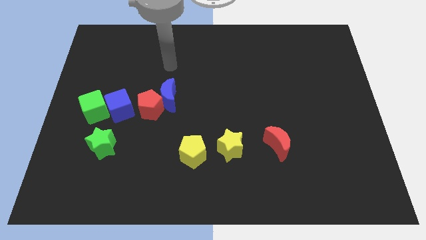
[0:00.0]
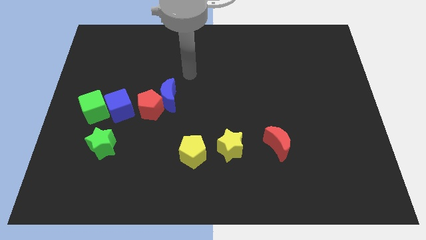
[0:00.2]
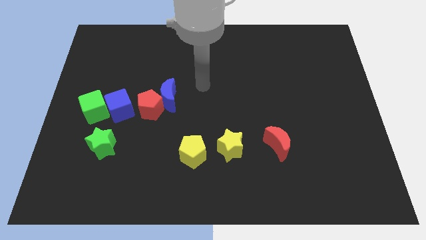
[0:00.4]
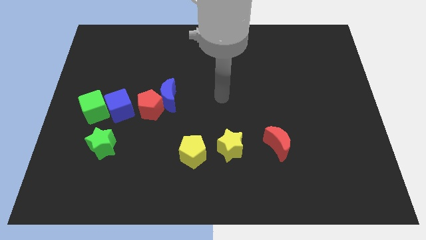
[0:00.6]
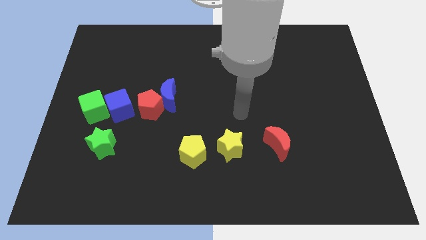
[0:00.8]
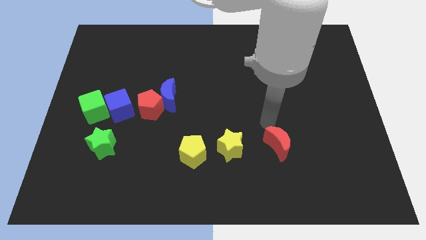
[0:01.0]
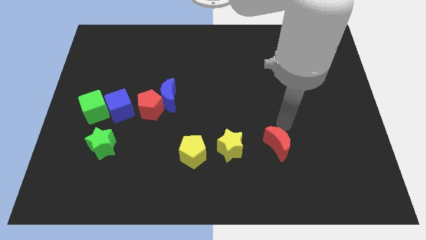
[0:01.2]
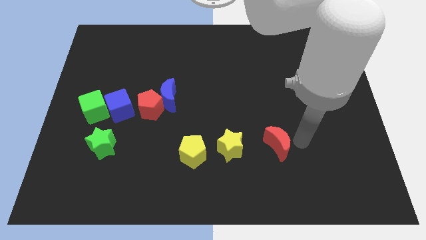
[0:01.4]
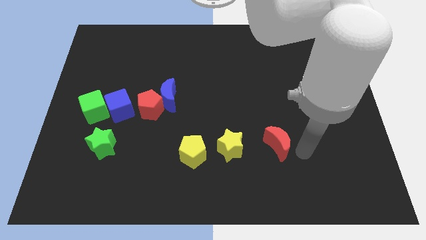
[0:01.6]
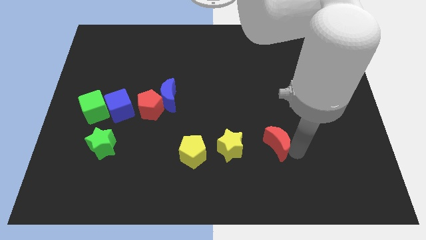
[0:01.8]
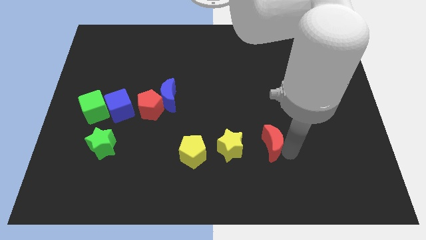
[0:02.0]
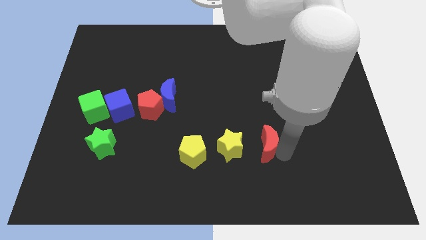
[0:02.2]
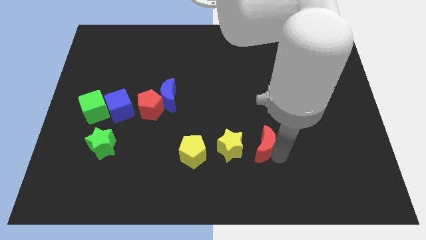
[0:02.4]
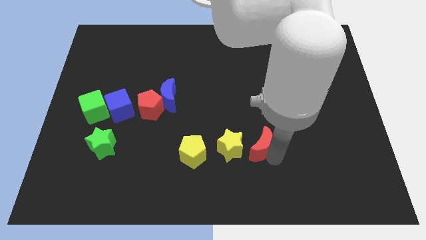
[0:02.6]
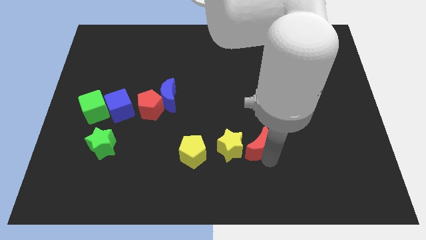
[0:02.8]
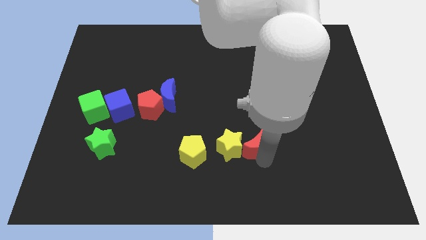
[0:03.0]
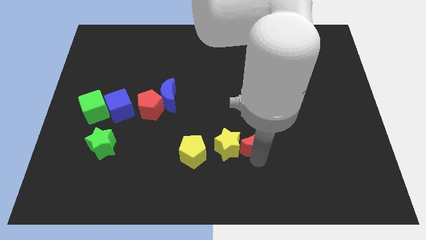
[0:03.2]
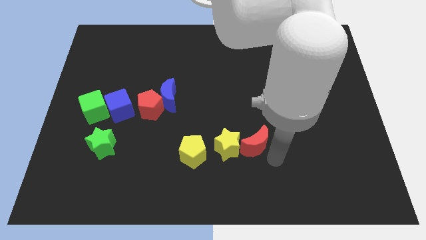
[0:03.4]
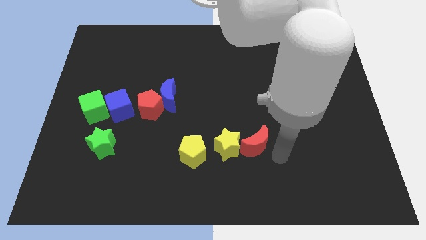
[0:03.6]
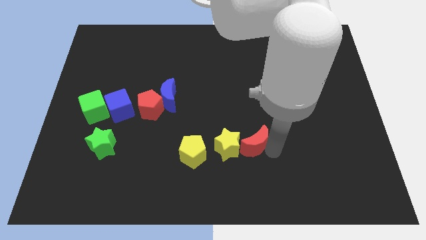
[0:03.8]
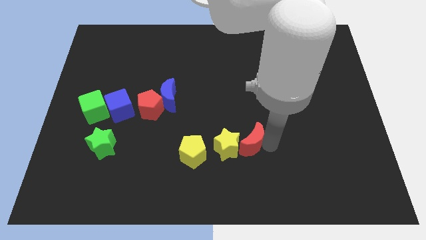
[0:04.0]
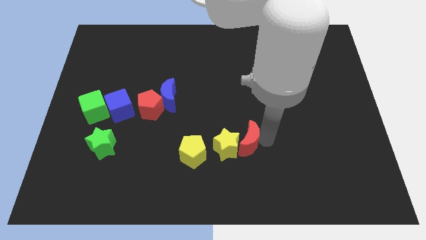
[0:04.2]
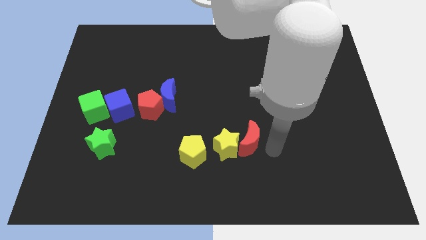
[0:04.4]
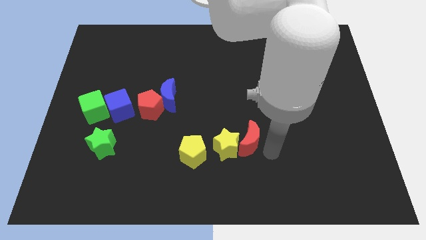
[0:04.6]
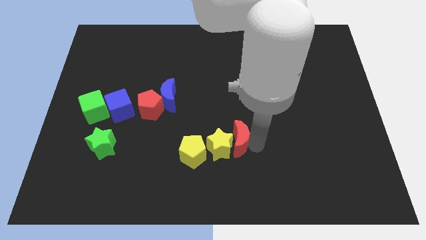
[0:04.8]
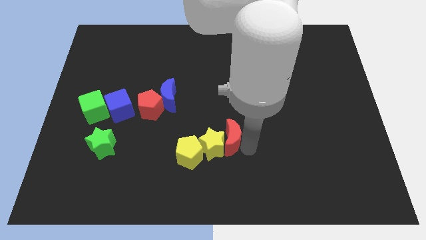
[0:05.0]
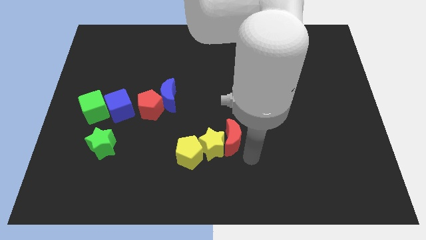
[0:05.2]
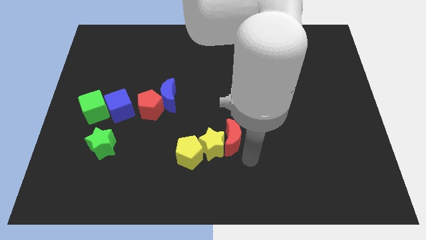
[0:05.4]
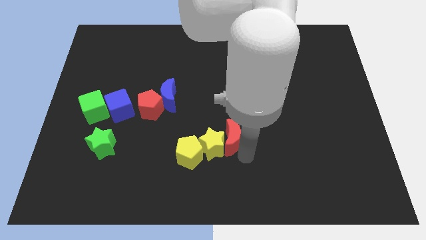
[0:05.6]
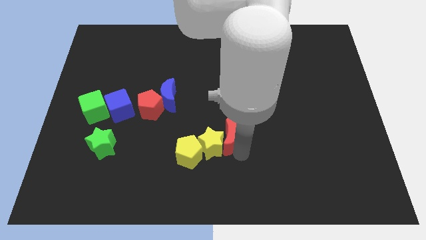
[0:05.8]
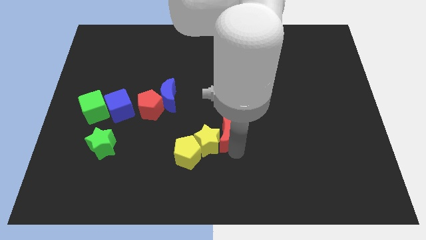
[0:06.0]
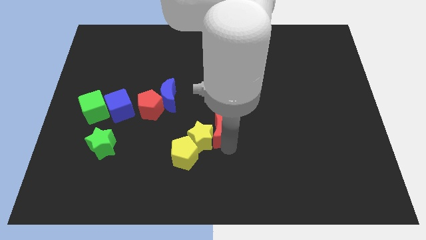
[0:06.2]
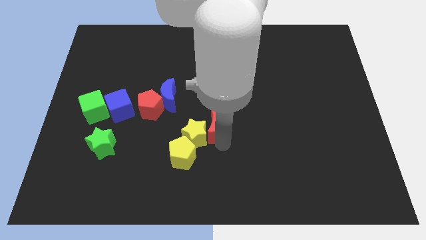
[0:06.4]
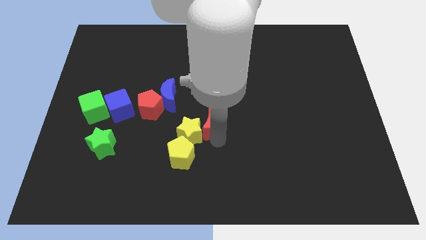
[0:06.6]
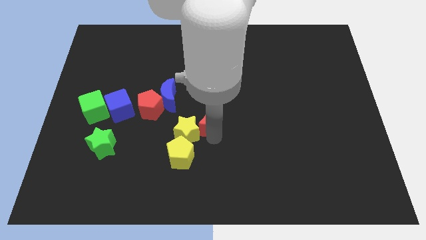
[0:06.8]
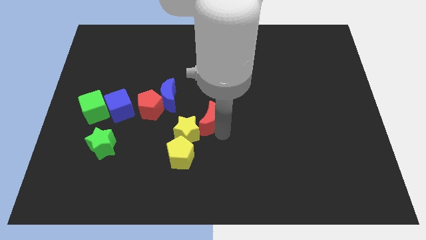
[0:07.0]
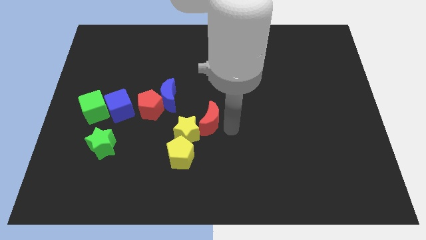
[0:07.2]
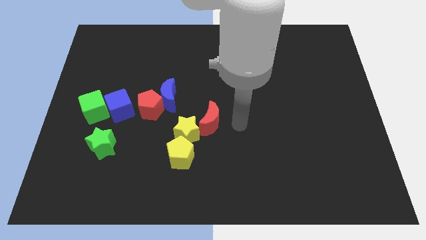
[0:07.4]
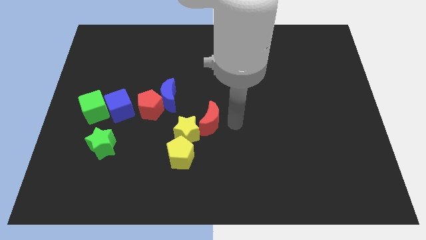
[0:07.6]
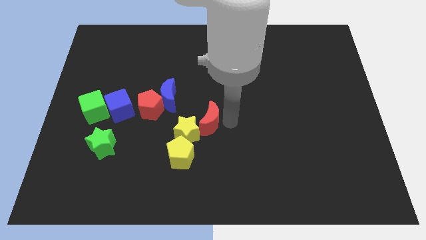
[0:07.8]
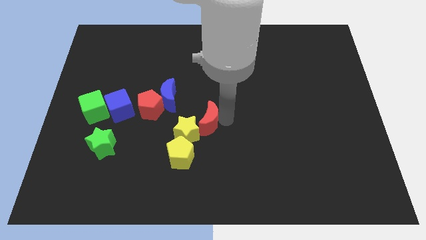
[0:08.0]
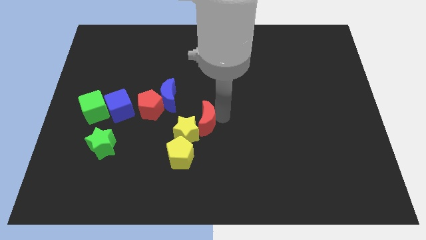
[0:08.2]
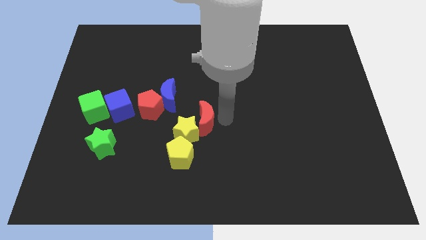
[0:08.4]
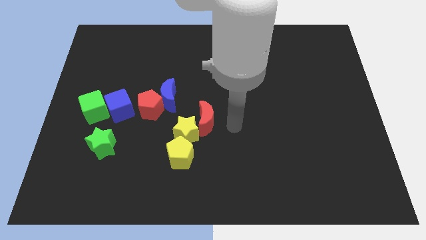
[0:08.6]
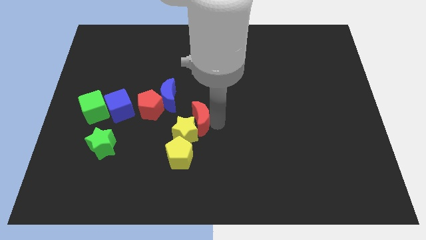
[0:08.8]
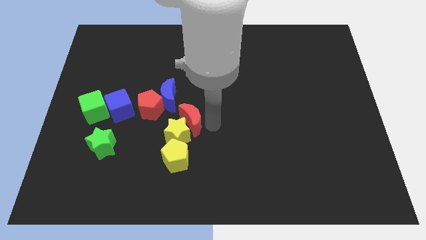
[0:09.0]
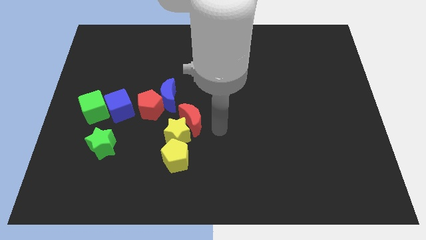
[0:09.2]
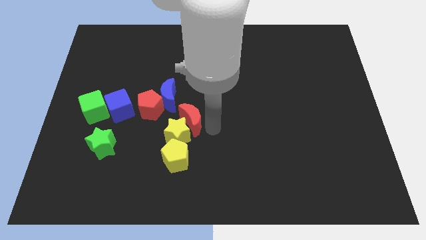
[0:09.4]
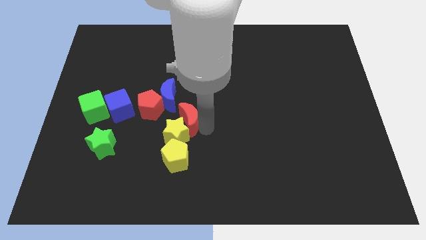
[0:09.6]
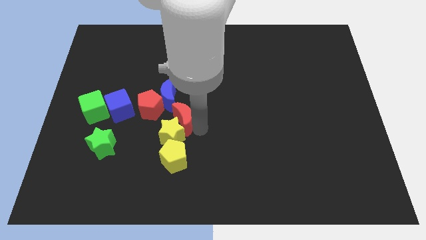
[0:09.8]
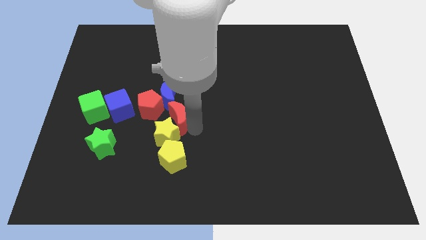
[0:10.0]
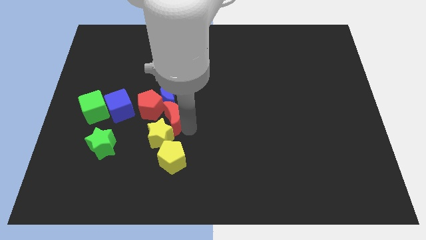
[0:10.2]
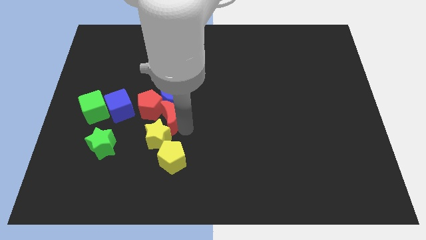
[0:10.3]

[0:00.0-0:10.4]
slide the red moon next to the red pentagon

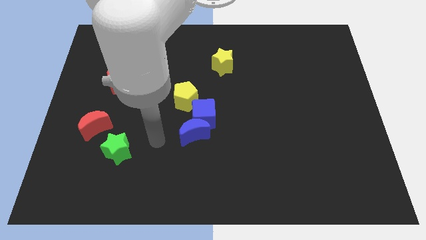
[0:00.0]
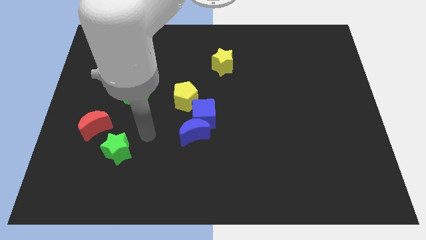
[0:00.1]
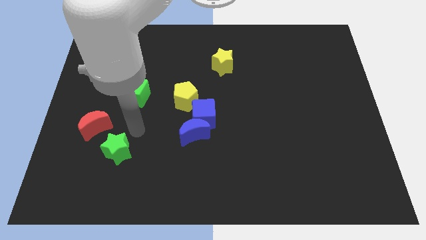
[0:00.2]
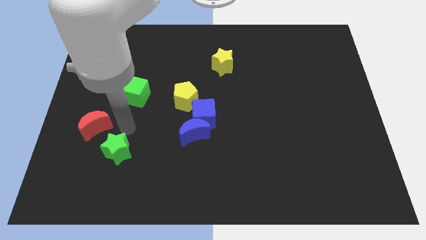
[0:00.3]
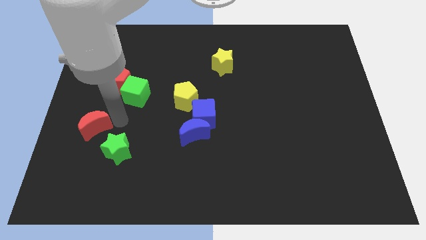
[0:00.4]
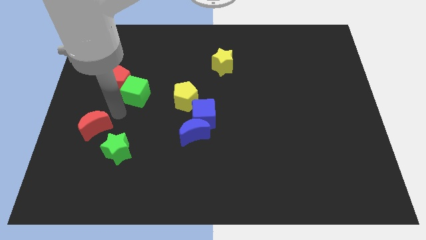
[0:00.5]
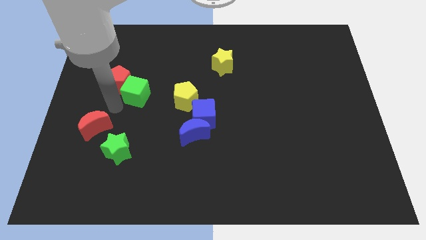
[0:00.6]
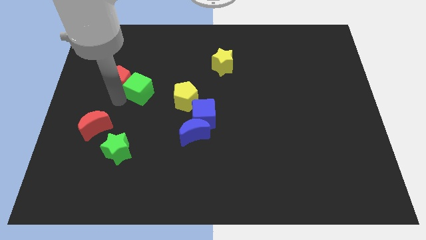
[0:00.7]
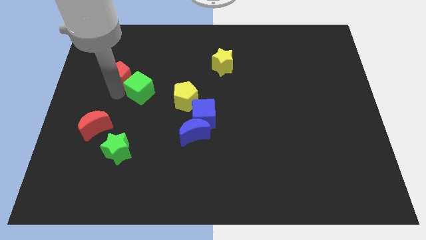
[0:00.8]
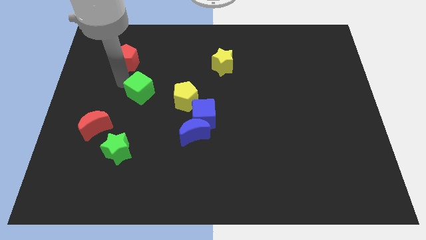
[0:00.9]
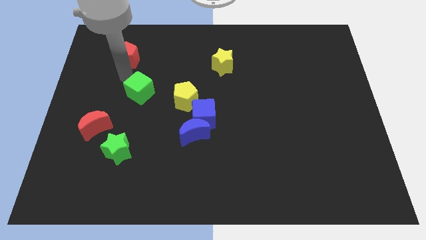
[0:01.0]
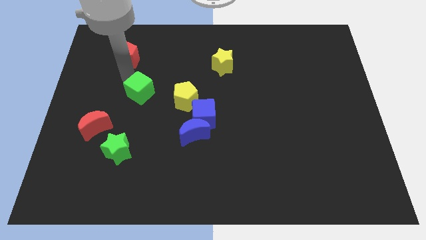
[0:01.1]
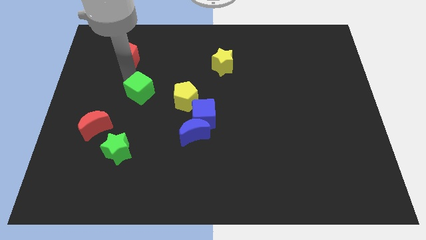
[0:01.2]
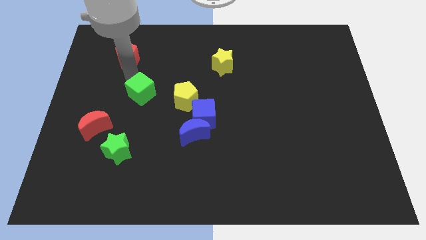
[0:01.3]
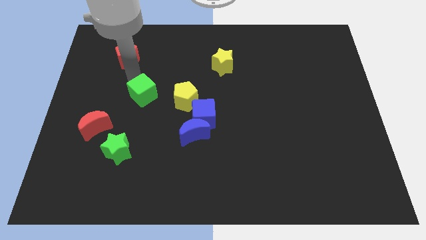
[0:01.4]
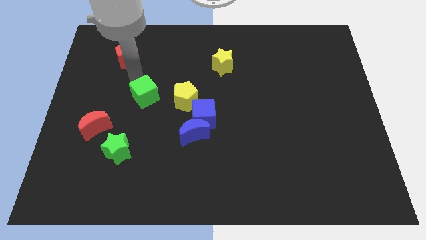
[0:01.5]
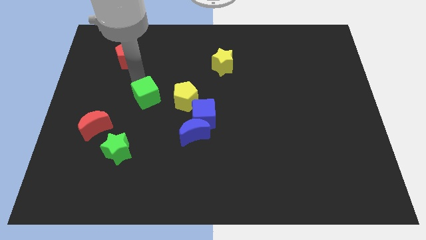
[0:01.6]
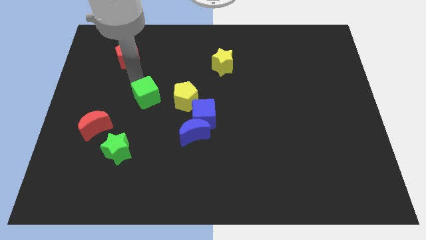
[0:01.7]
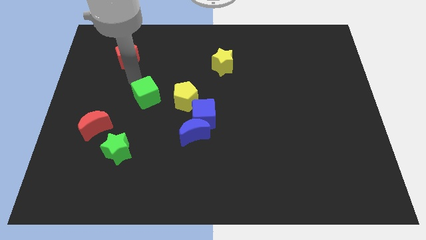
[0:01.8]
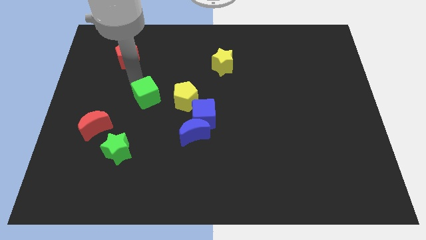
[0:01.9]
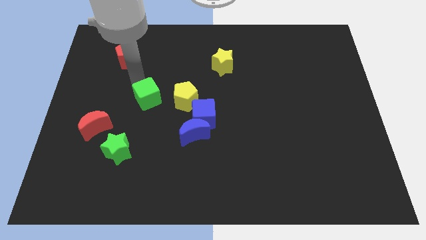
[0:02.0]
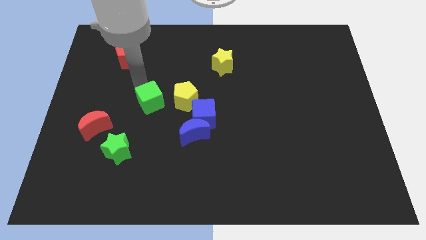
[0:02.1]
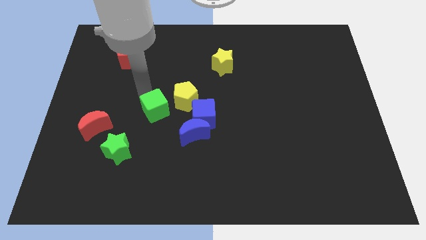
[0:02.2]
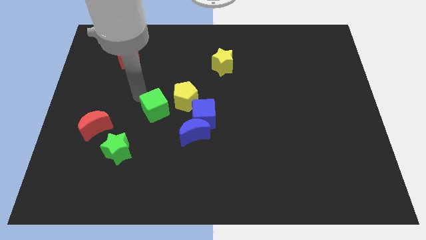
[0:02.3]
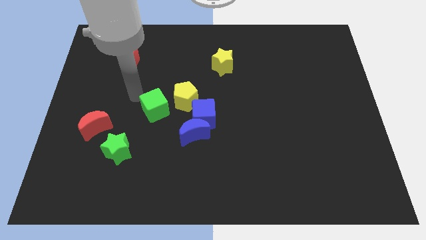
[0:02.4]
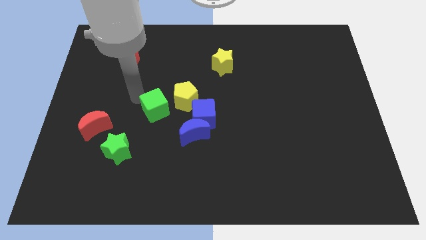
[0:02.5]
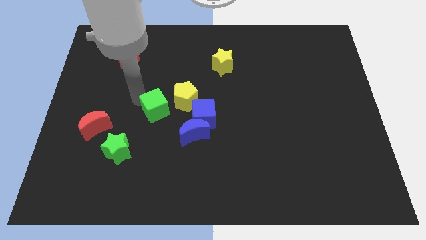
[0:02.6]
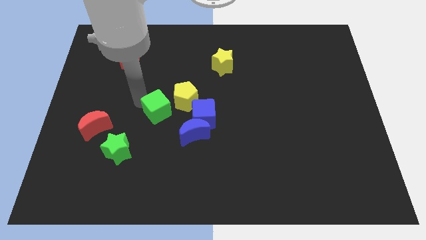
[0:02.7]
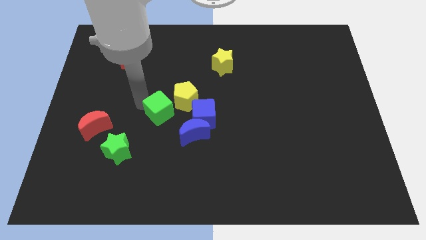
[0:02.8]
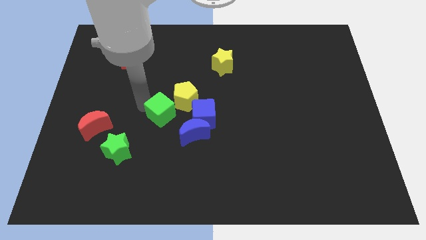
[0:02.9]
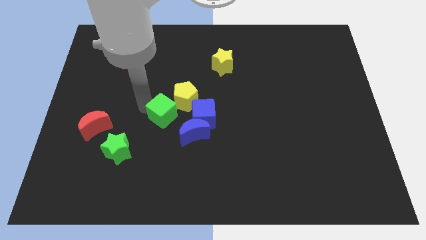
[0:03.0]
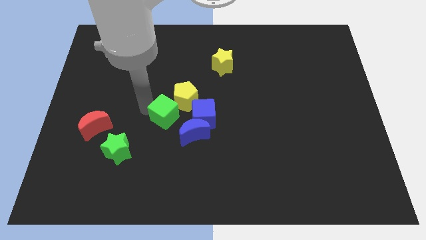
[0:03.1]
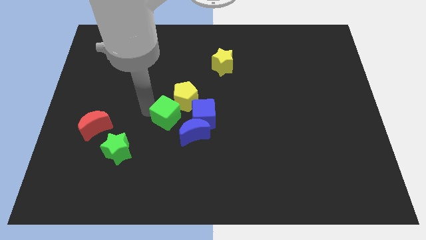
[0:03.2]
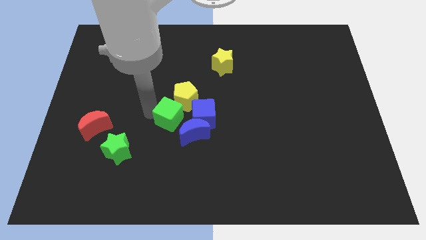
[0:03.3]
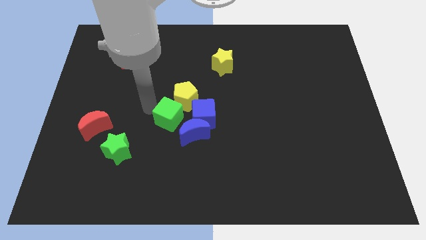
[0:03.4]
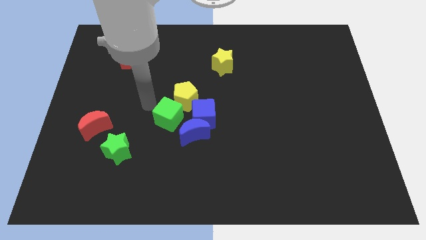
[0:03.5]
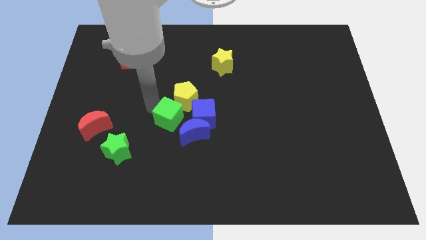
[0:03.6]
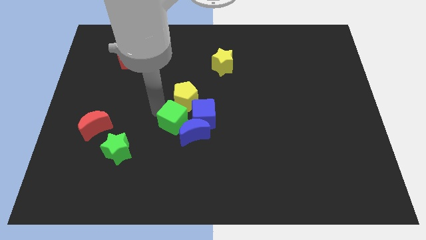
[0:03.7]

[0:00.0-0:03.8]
put the green cube next to the blue moon
